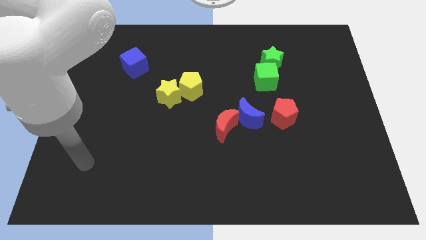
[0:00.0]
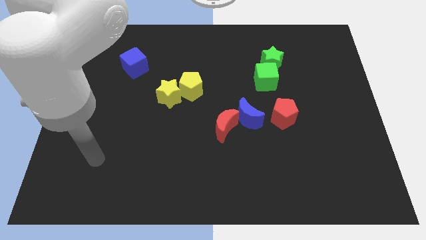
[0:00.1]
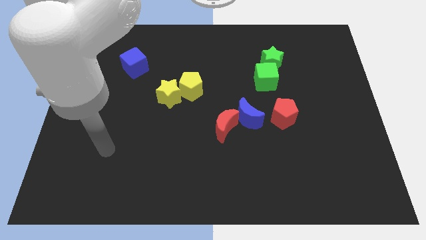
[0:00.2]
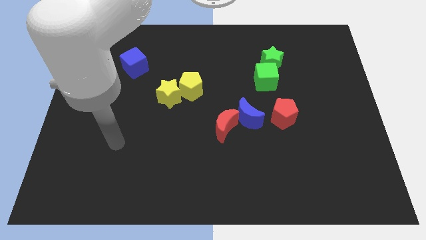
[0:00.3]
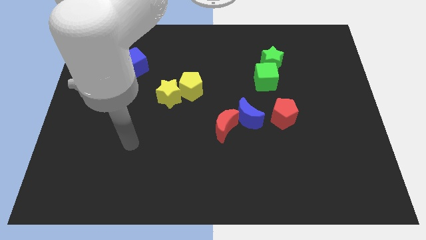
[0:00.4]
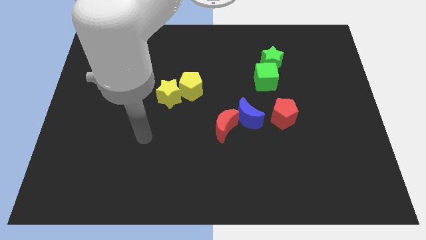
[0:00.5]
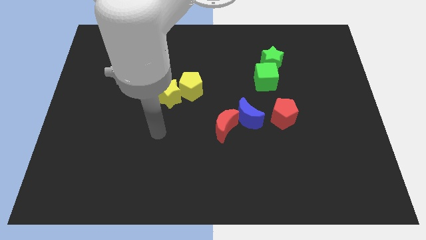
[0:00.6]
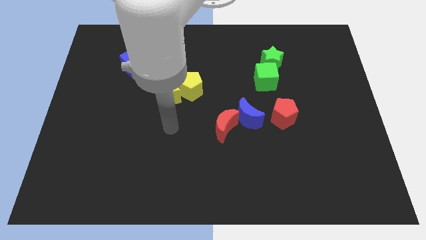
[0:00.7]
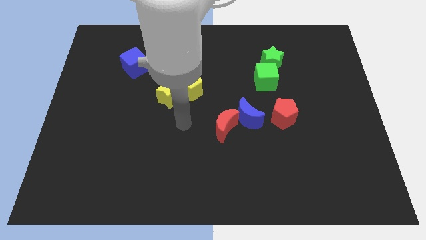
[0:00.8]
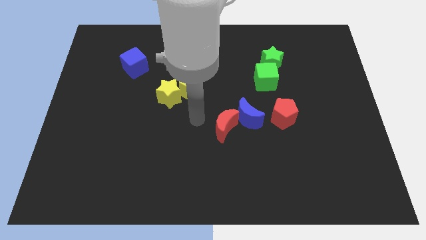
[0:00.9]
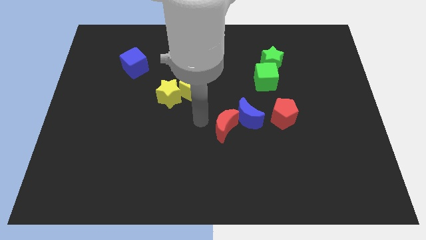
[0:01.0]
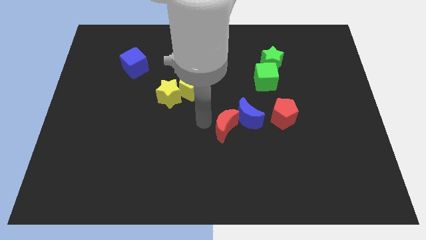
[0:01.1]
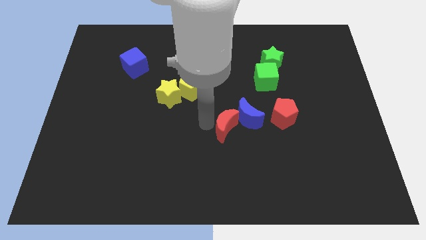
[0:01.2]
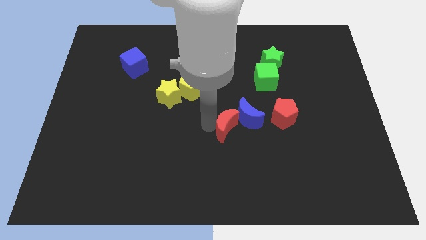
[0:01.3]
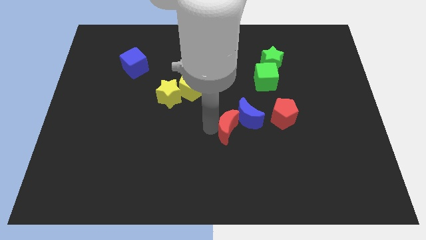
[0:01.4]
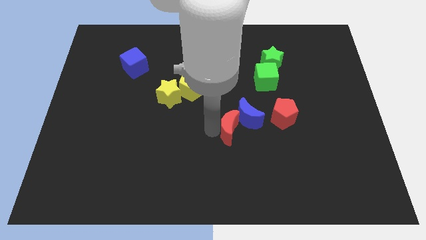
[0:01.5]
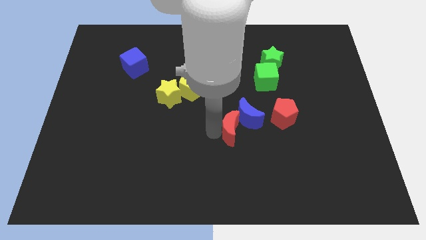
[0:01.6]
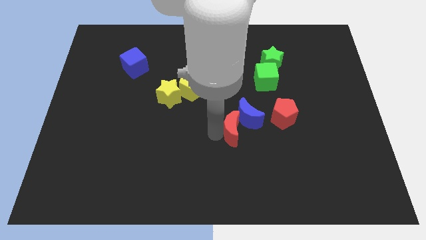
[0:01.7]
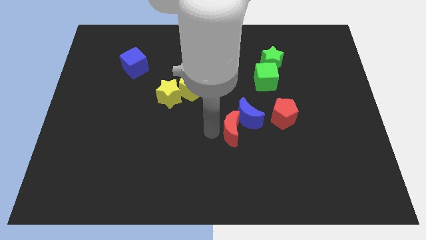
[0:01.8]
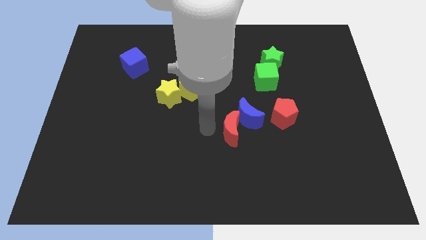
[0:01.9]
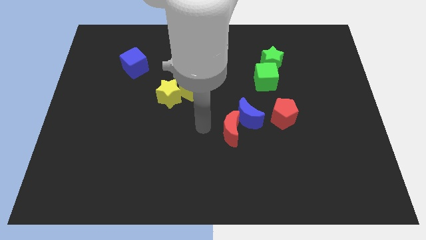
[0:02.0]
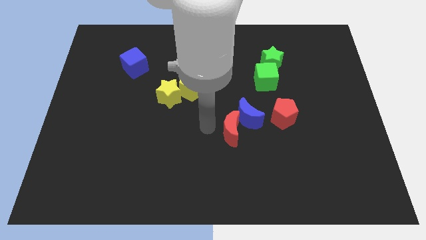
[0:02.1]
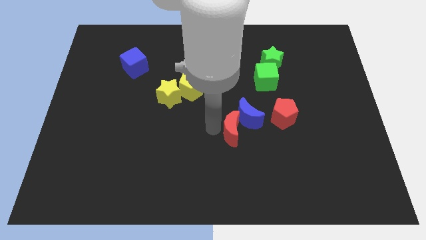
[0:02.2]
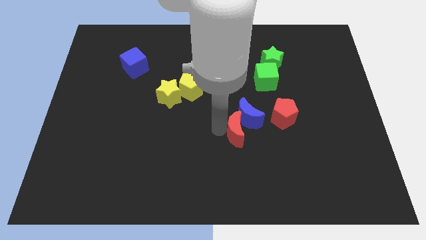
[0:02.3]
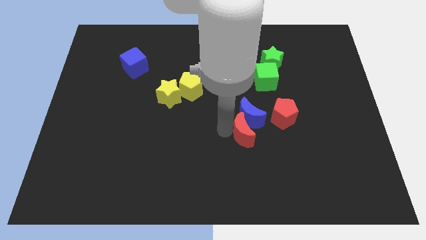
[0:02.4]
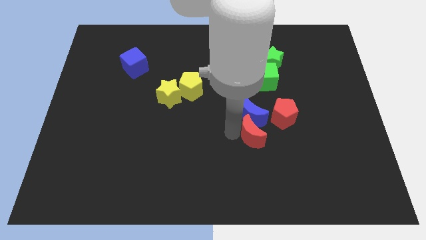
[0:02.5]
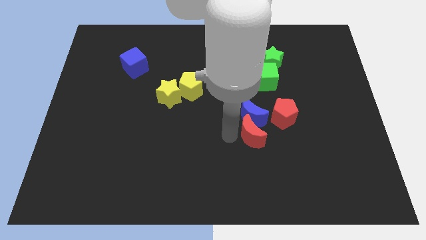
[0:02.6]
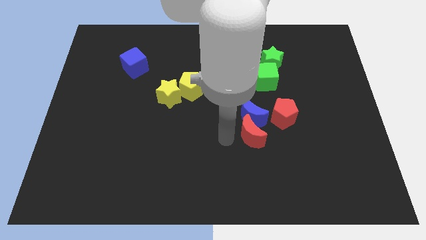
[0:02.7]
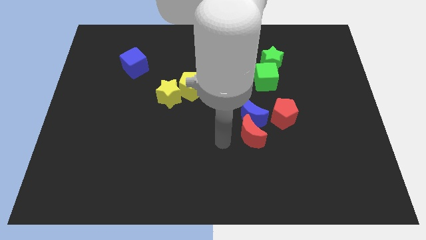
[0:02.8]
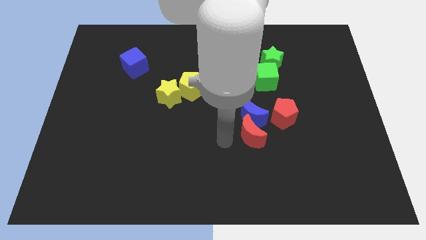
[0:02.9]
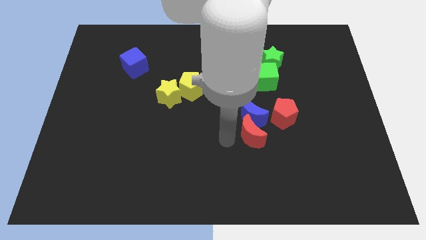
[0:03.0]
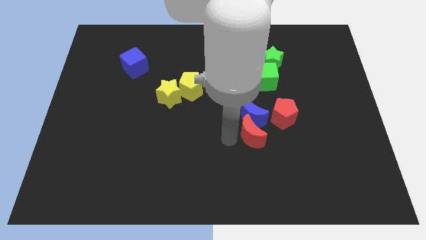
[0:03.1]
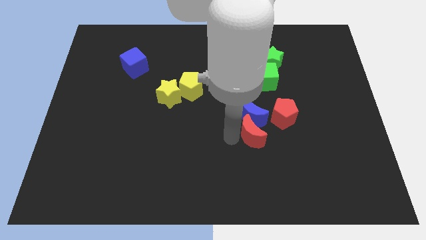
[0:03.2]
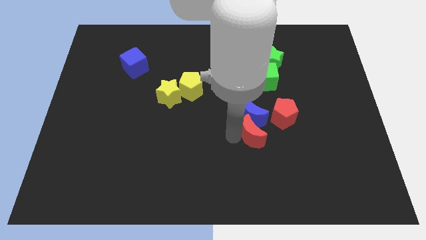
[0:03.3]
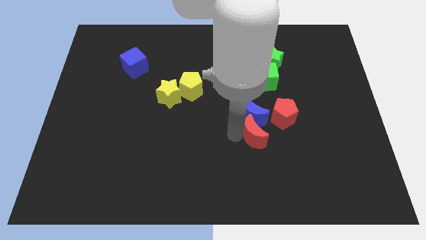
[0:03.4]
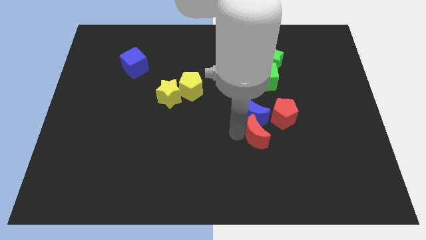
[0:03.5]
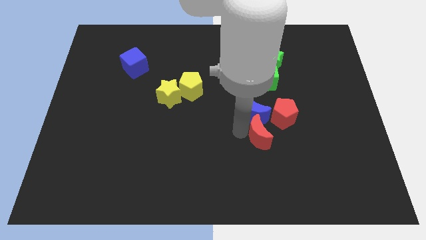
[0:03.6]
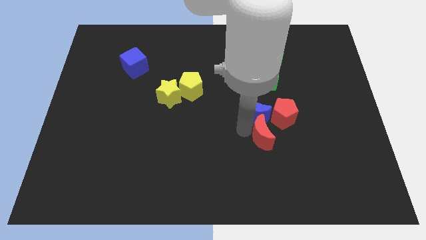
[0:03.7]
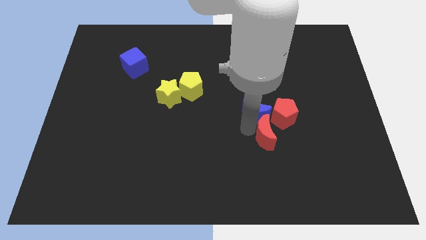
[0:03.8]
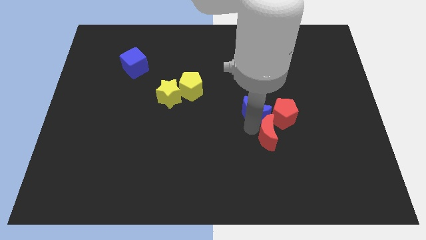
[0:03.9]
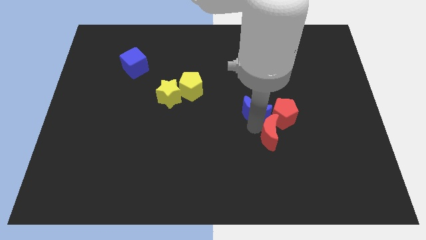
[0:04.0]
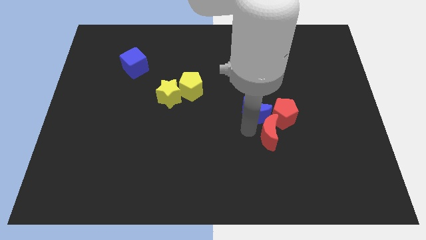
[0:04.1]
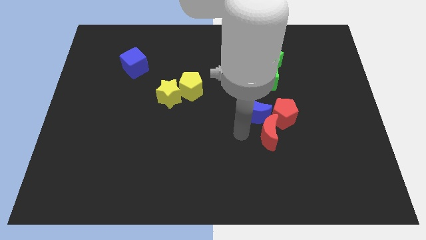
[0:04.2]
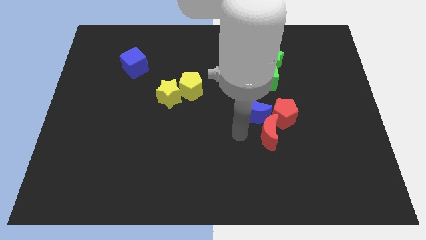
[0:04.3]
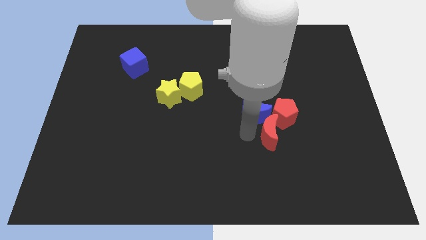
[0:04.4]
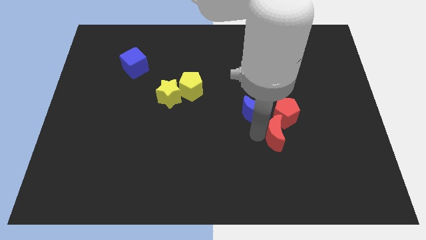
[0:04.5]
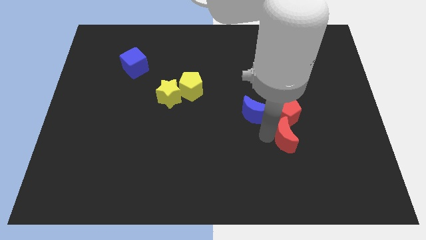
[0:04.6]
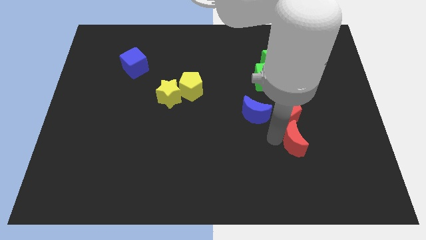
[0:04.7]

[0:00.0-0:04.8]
push the red moon diagonally down and to the right of the red pentagon

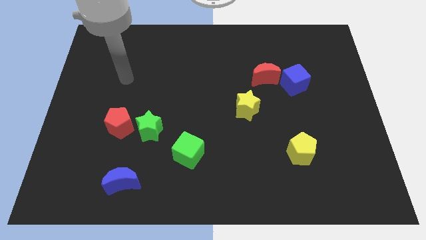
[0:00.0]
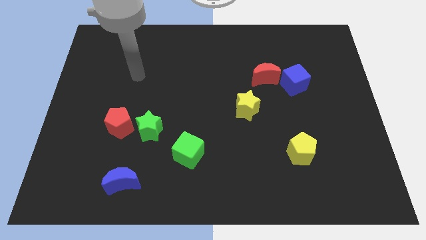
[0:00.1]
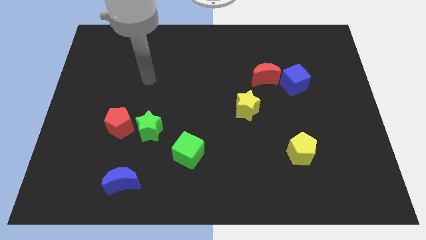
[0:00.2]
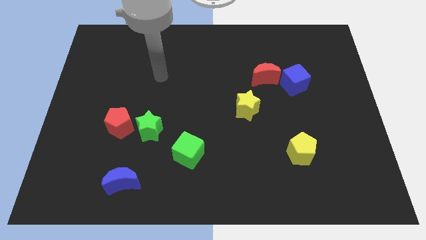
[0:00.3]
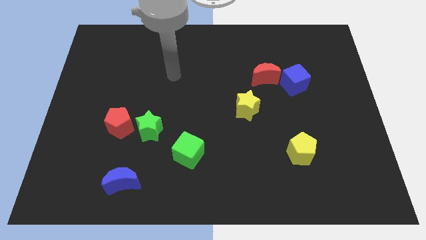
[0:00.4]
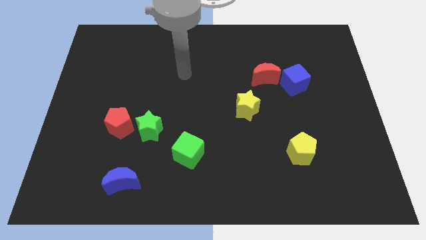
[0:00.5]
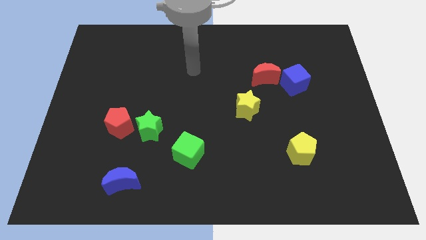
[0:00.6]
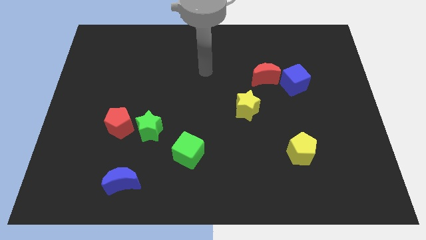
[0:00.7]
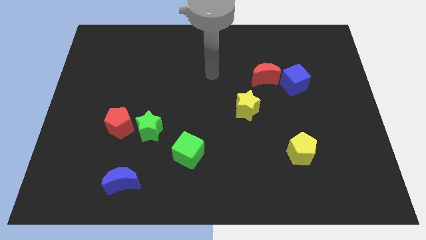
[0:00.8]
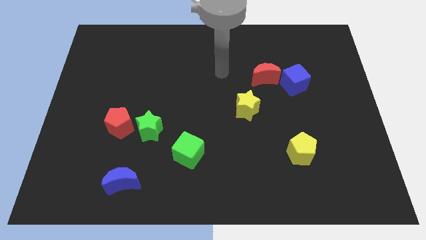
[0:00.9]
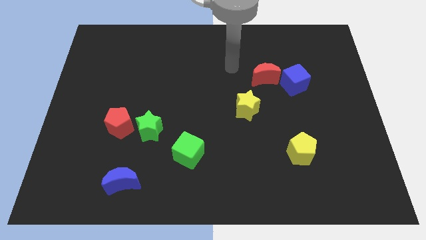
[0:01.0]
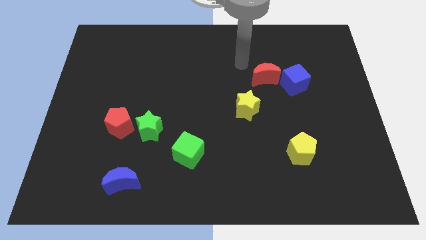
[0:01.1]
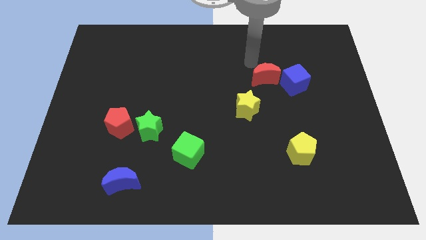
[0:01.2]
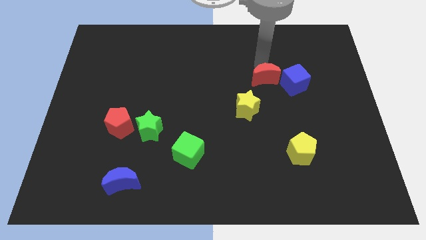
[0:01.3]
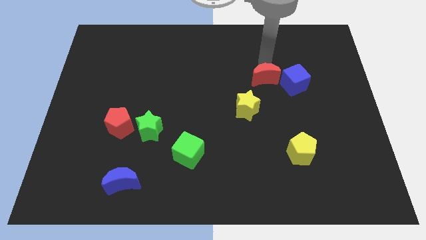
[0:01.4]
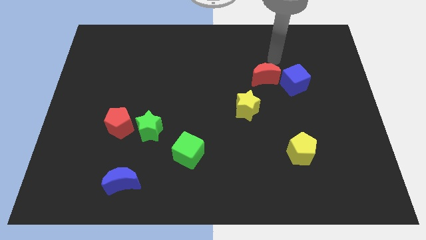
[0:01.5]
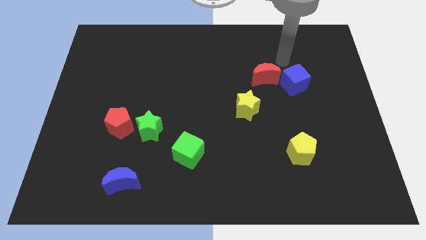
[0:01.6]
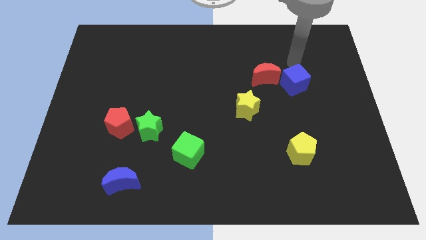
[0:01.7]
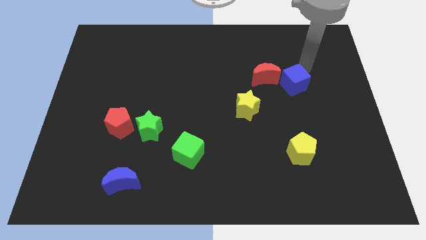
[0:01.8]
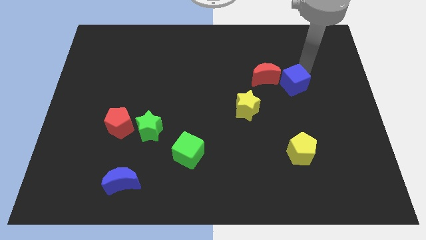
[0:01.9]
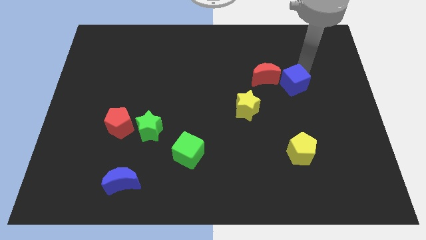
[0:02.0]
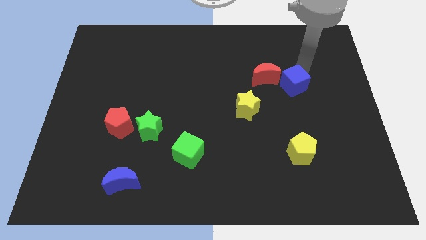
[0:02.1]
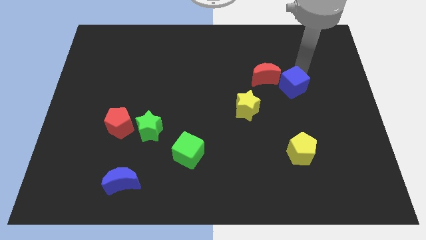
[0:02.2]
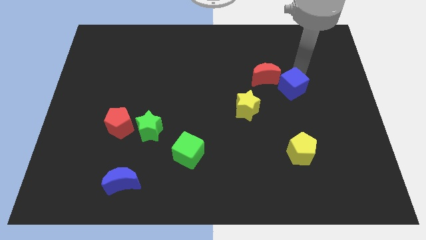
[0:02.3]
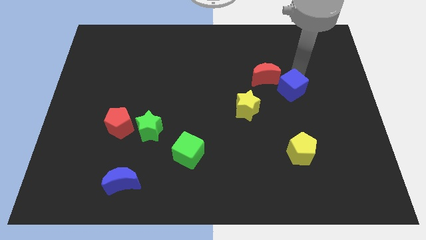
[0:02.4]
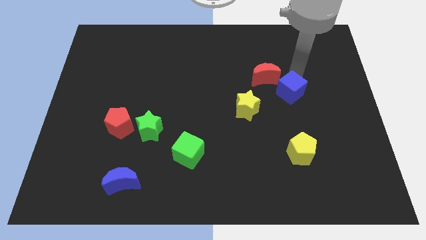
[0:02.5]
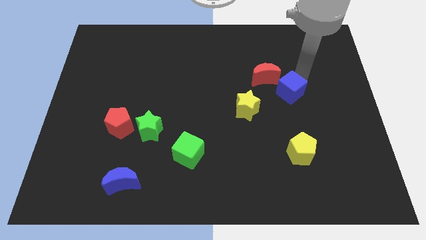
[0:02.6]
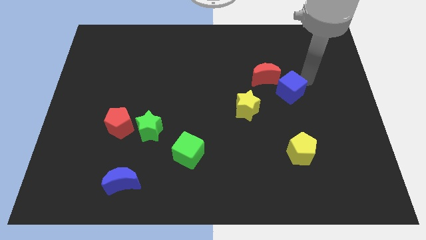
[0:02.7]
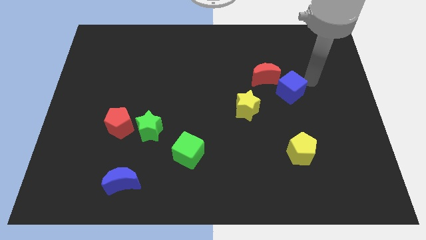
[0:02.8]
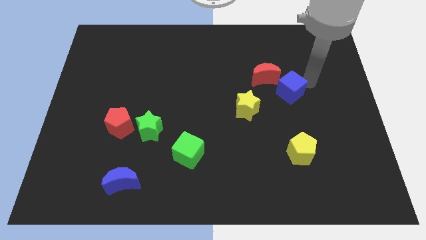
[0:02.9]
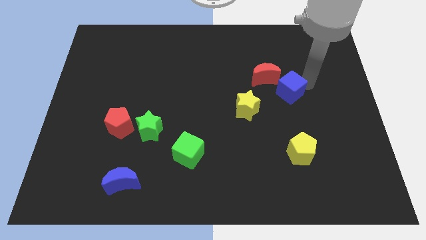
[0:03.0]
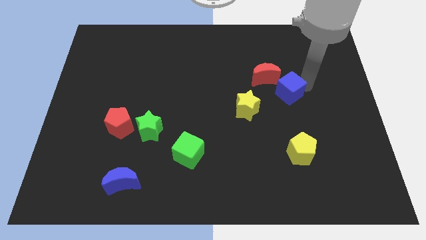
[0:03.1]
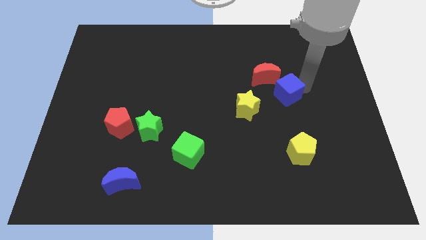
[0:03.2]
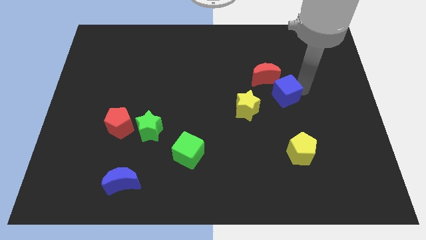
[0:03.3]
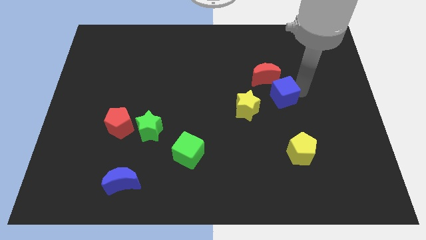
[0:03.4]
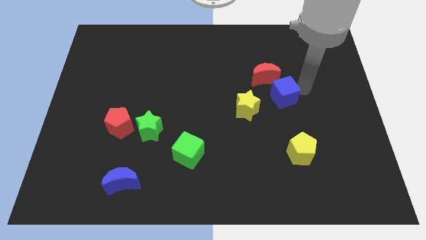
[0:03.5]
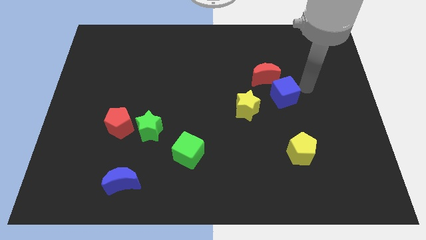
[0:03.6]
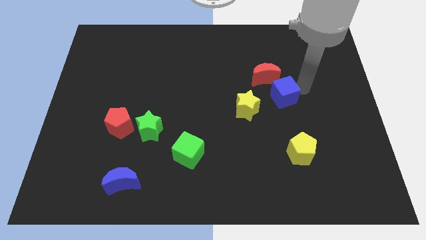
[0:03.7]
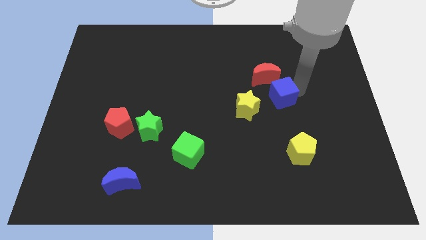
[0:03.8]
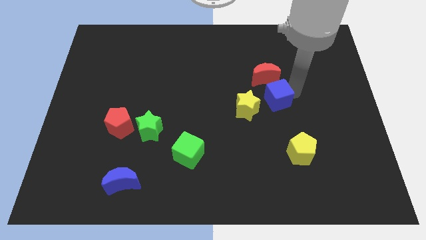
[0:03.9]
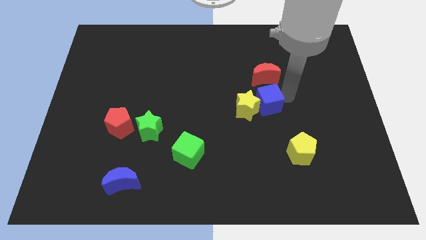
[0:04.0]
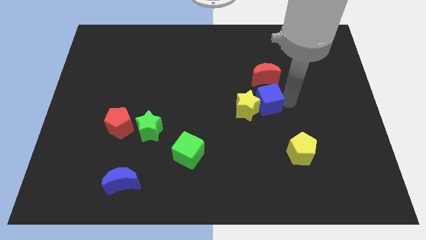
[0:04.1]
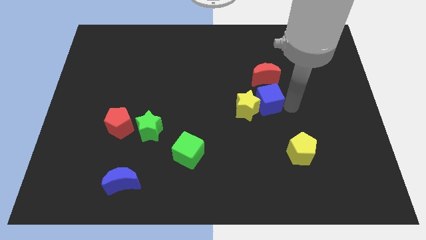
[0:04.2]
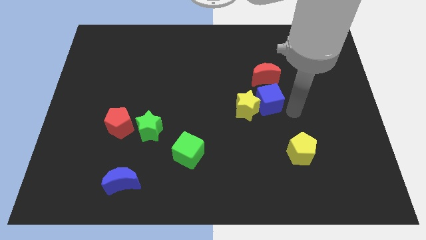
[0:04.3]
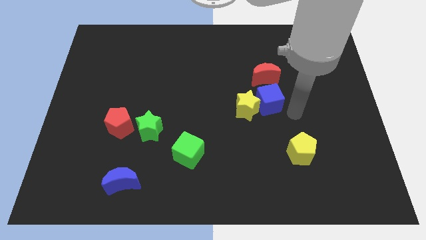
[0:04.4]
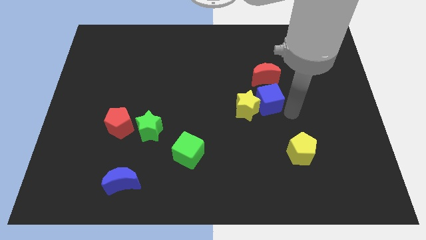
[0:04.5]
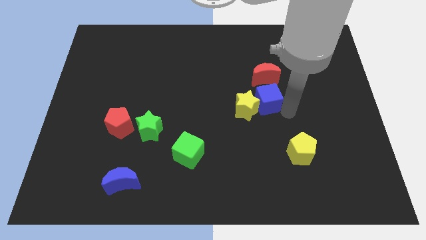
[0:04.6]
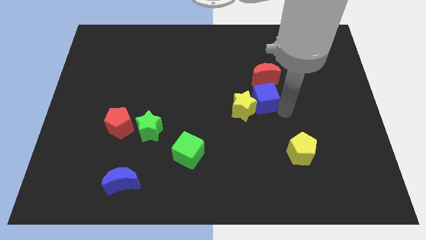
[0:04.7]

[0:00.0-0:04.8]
put the blue cube to the bottom left side of the red moon
